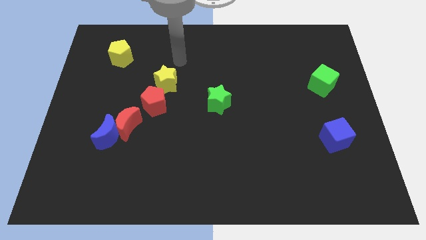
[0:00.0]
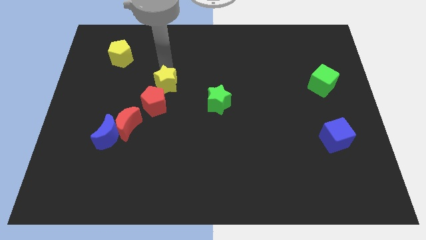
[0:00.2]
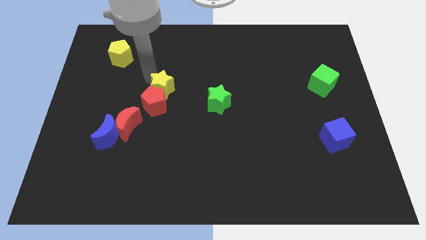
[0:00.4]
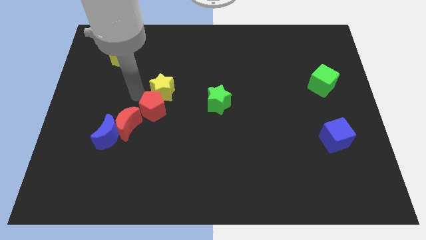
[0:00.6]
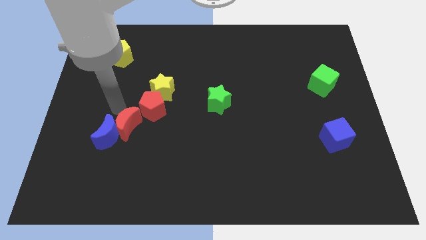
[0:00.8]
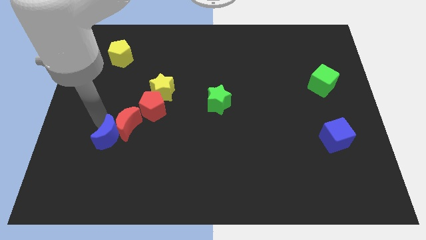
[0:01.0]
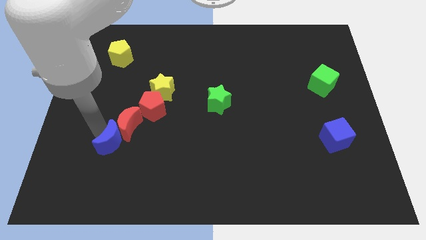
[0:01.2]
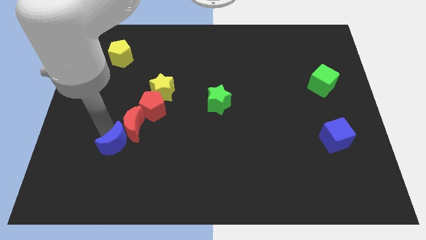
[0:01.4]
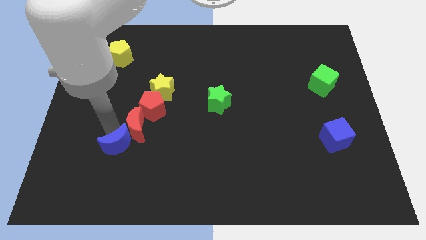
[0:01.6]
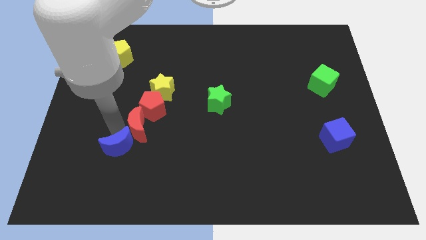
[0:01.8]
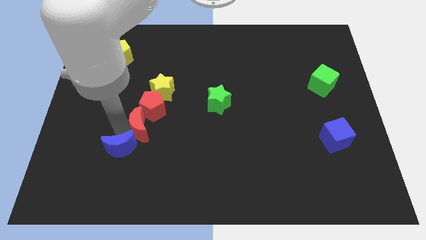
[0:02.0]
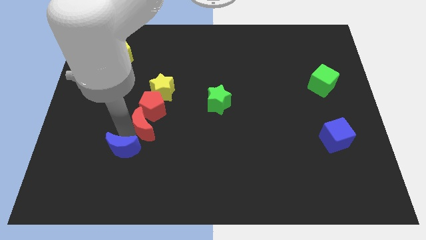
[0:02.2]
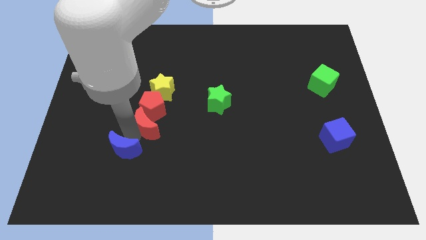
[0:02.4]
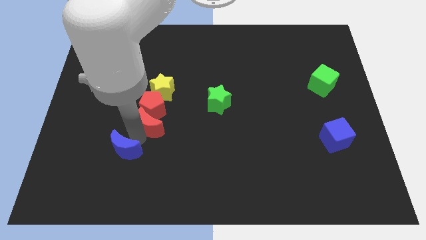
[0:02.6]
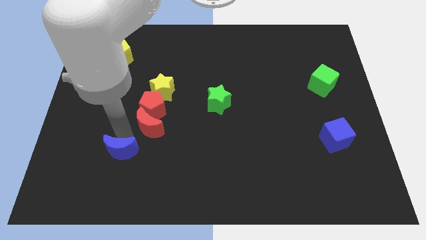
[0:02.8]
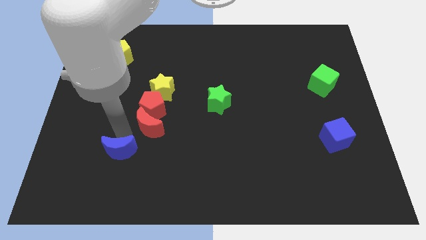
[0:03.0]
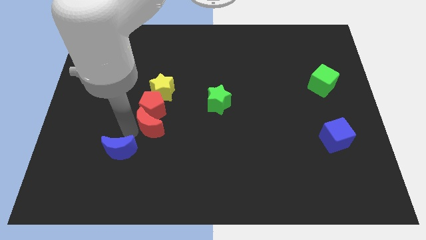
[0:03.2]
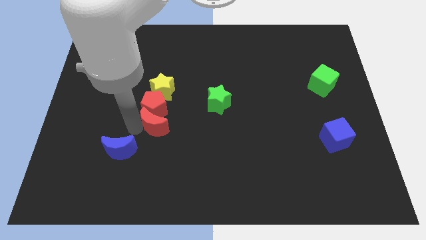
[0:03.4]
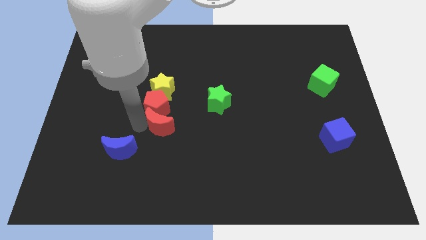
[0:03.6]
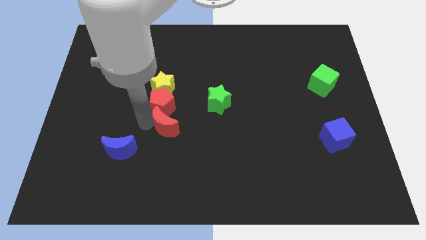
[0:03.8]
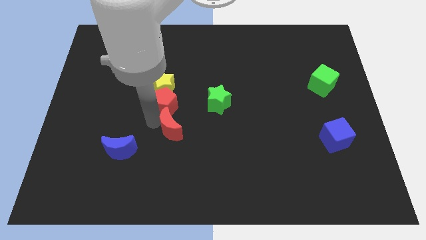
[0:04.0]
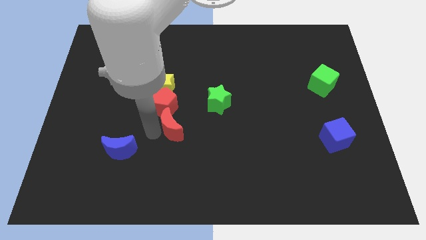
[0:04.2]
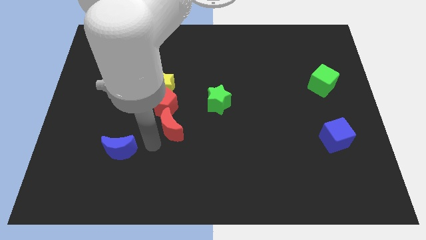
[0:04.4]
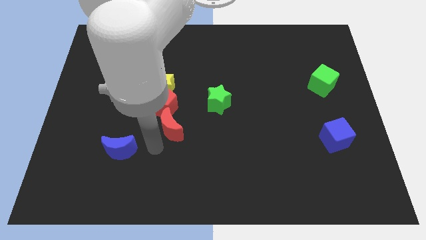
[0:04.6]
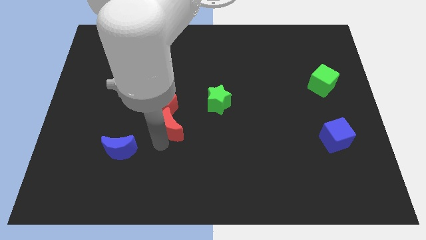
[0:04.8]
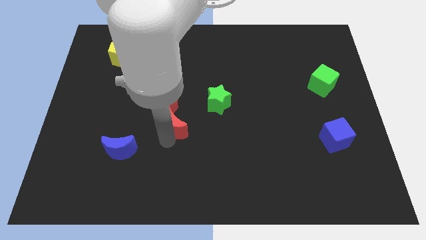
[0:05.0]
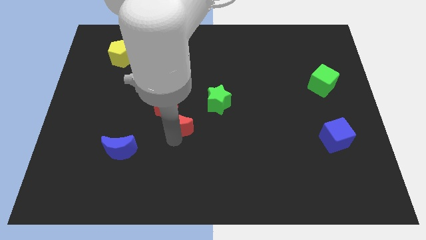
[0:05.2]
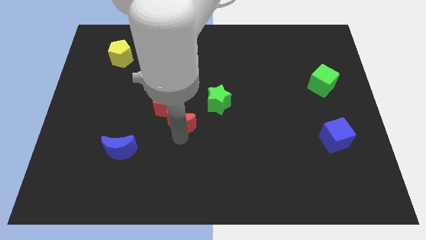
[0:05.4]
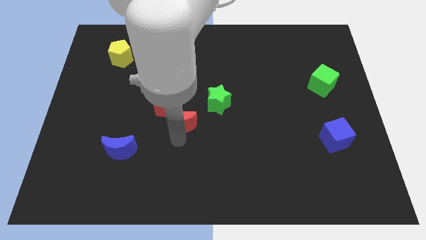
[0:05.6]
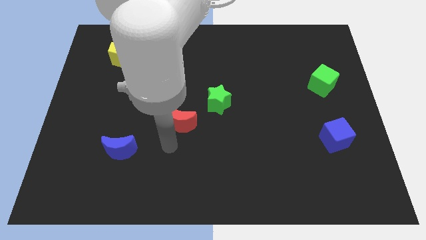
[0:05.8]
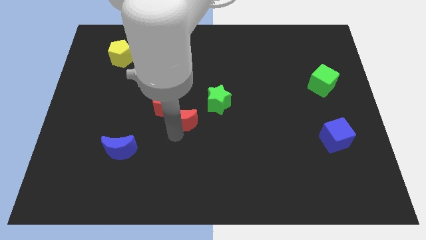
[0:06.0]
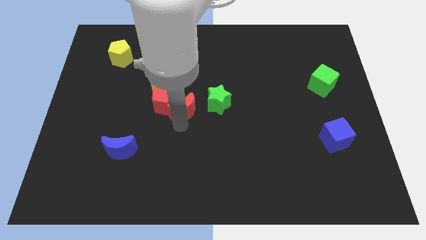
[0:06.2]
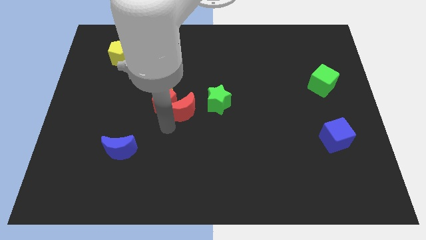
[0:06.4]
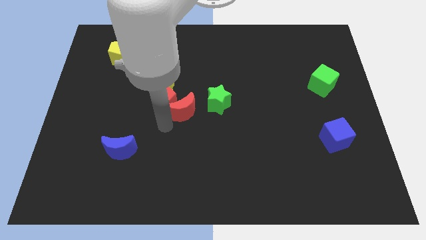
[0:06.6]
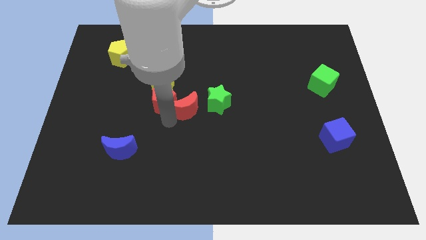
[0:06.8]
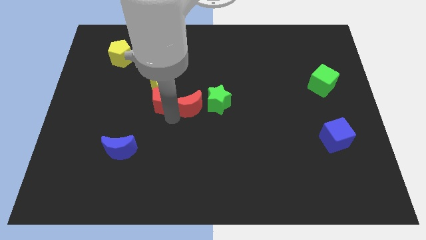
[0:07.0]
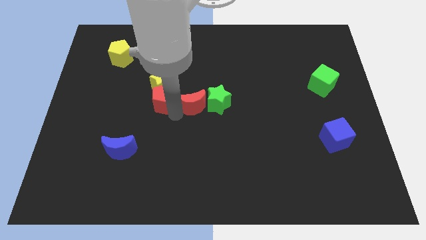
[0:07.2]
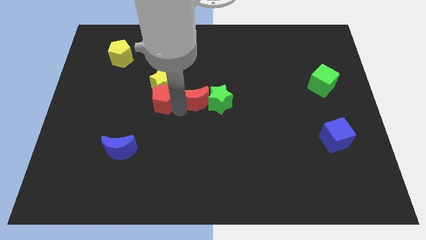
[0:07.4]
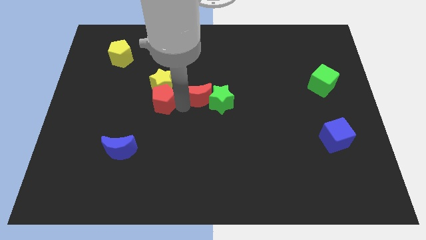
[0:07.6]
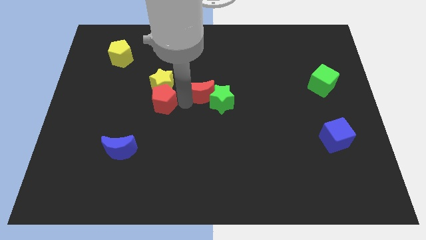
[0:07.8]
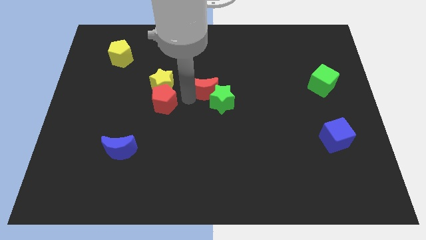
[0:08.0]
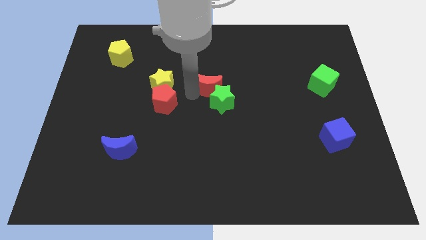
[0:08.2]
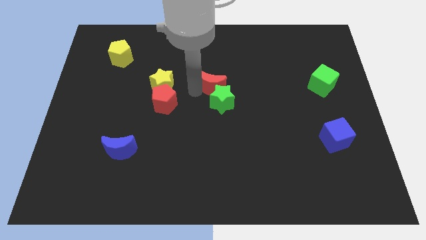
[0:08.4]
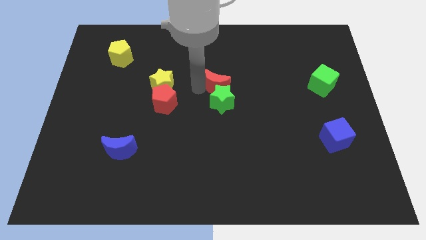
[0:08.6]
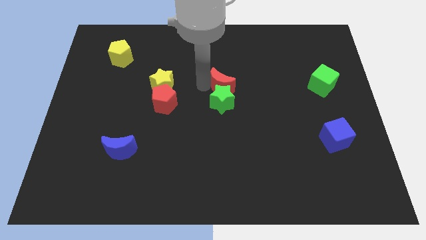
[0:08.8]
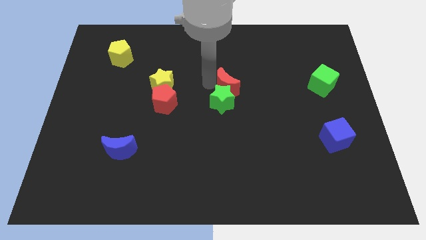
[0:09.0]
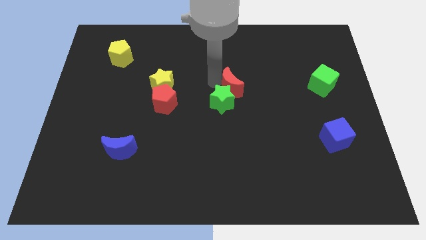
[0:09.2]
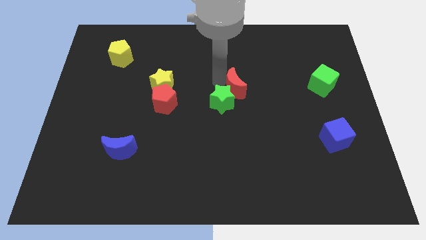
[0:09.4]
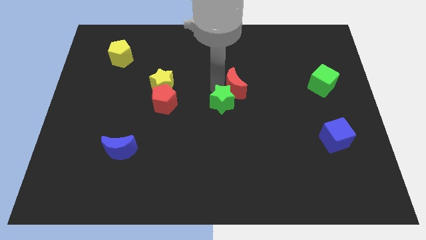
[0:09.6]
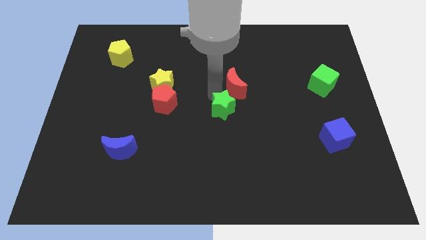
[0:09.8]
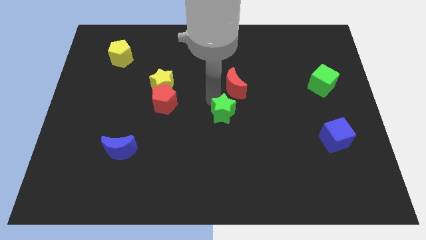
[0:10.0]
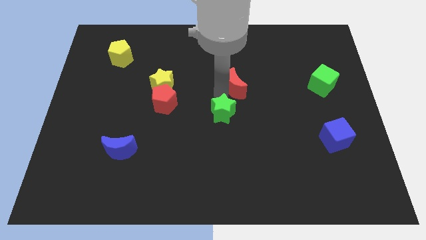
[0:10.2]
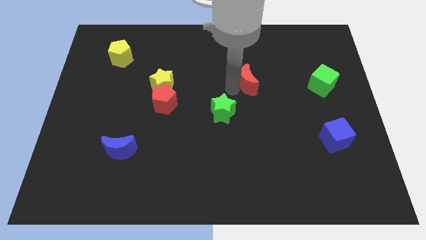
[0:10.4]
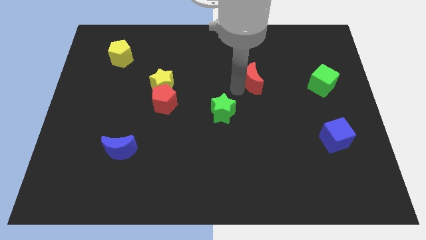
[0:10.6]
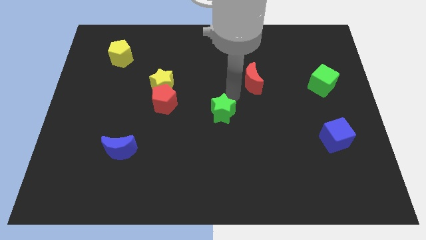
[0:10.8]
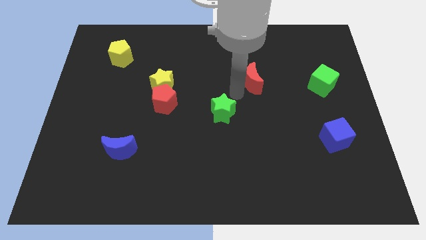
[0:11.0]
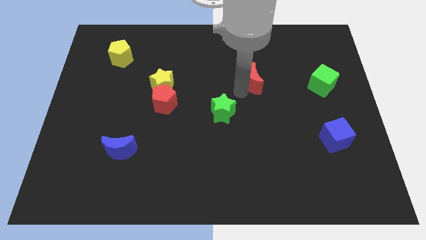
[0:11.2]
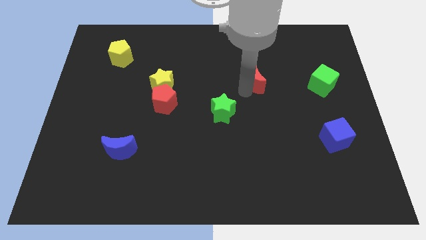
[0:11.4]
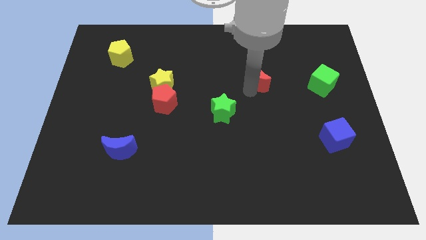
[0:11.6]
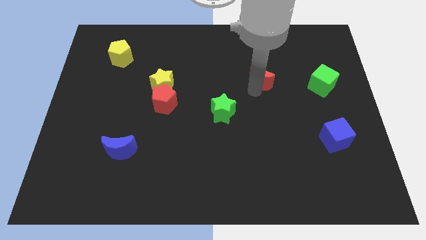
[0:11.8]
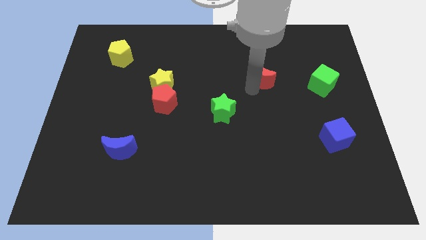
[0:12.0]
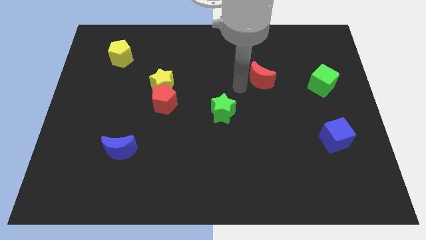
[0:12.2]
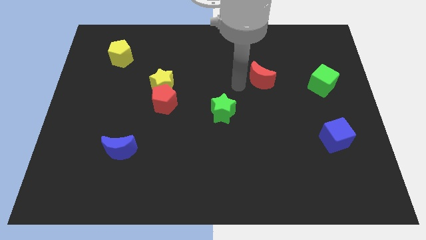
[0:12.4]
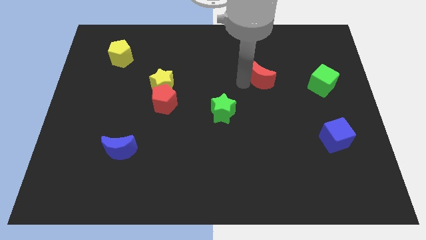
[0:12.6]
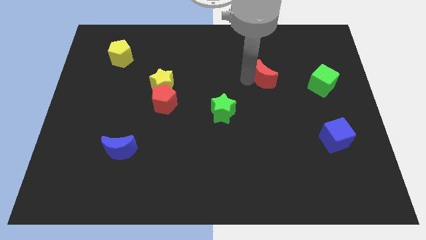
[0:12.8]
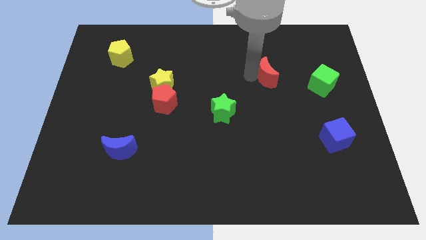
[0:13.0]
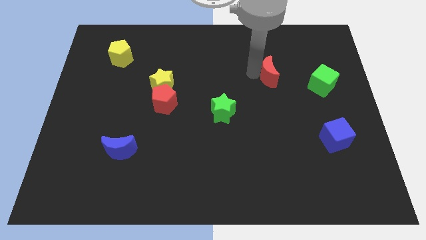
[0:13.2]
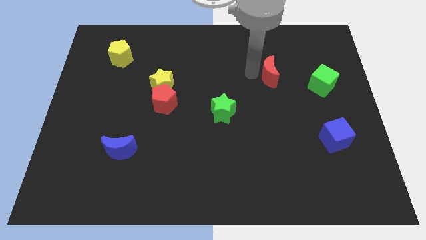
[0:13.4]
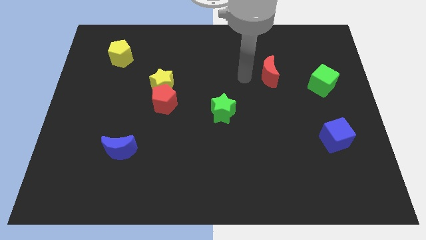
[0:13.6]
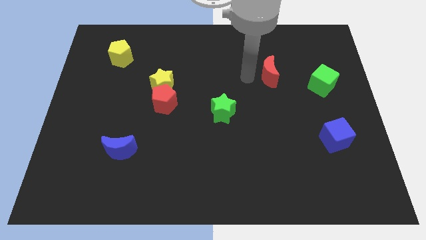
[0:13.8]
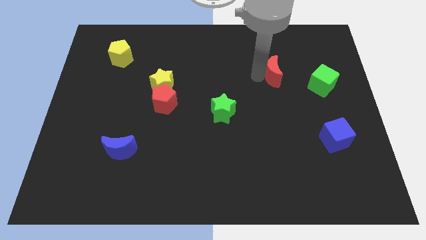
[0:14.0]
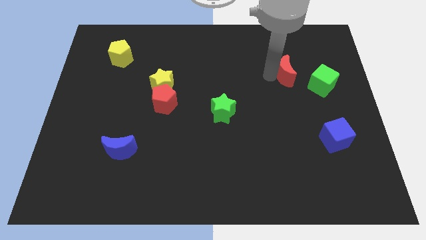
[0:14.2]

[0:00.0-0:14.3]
move the red moon diagonally up and to the left of the green cube

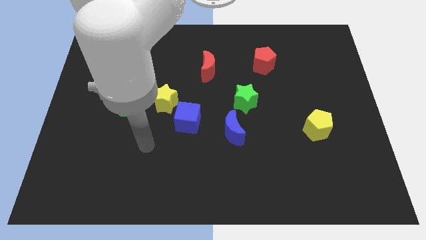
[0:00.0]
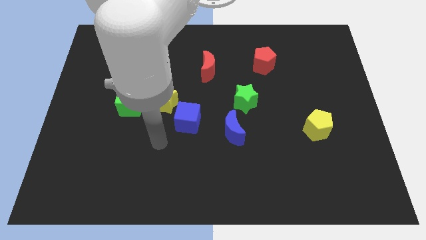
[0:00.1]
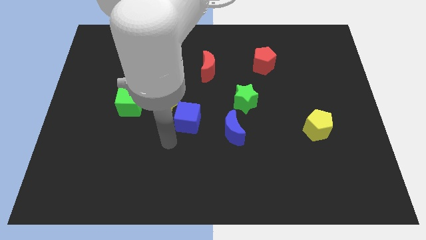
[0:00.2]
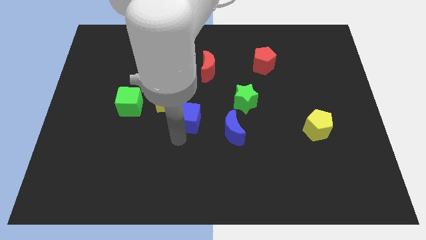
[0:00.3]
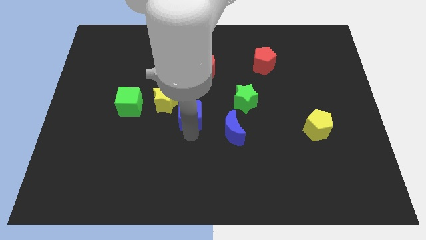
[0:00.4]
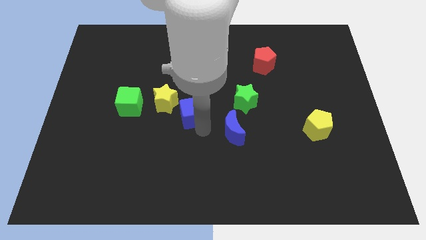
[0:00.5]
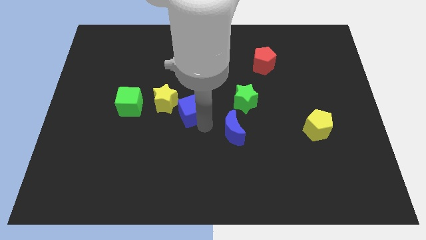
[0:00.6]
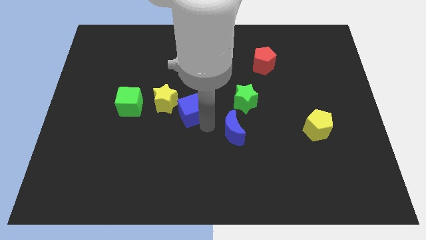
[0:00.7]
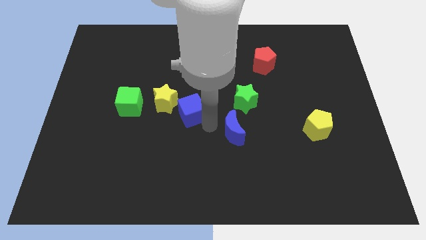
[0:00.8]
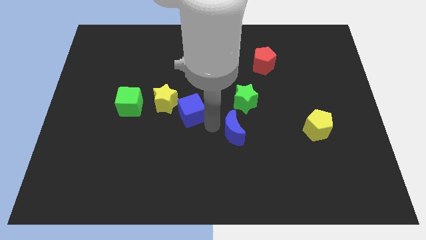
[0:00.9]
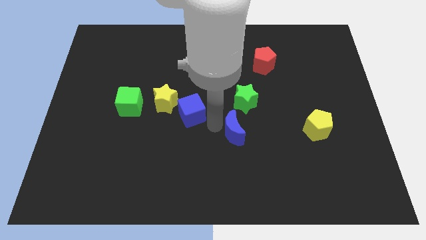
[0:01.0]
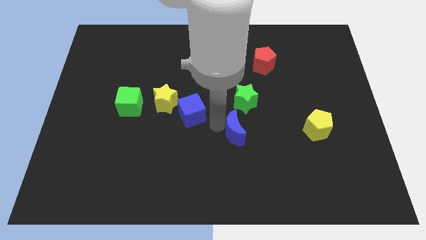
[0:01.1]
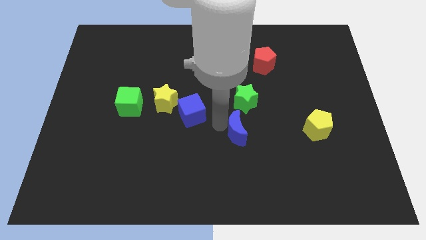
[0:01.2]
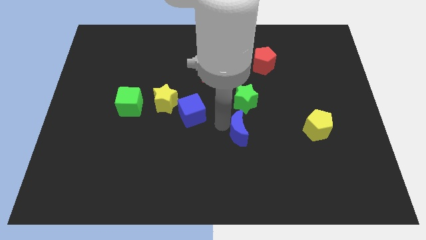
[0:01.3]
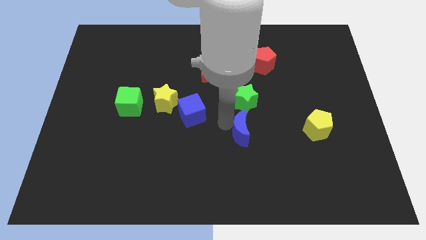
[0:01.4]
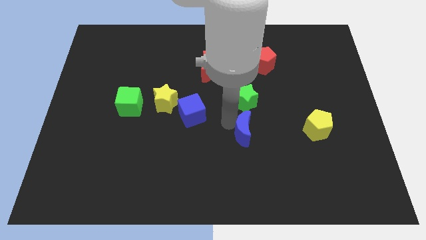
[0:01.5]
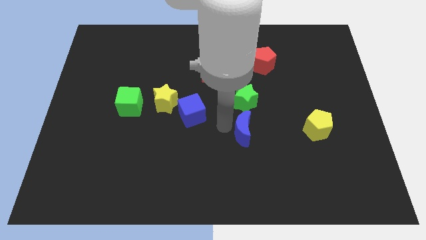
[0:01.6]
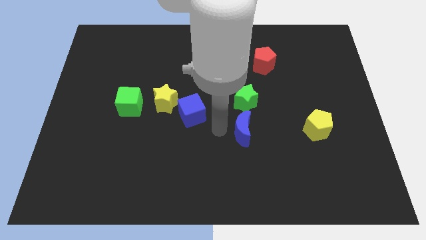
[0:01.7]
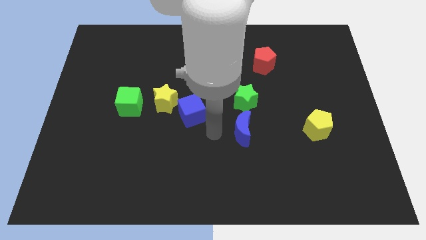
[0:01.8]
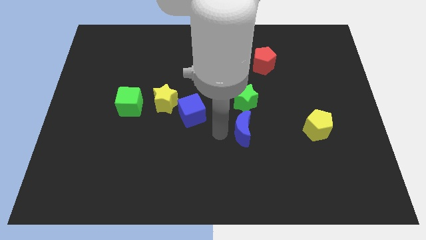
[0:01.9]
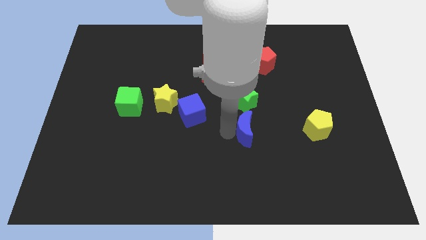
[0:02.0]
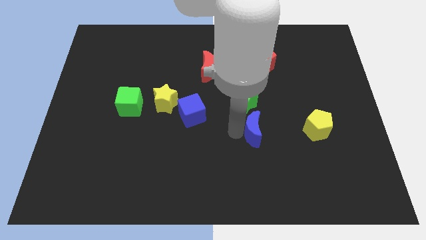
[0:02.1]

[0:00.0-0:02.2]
move the blue moon to the left side of the yellow pentagon
